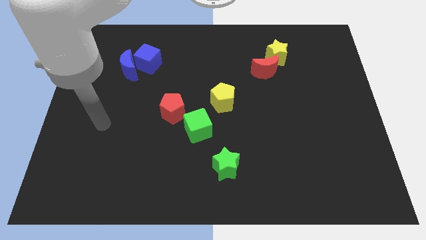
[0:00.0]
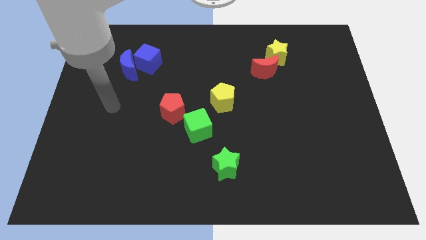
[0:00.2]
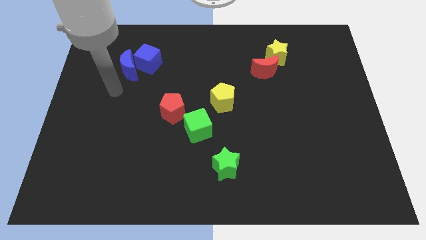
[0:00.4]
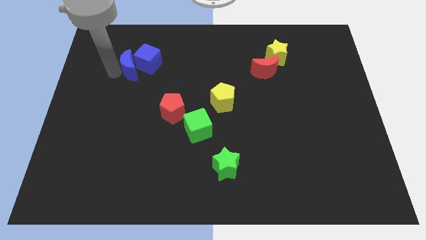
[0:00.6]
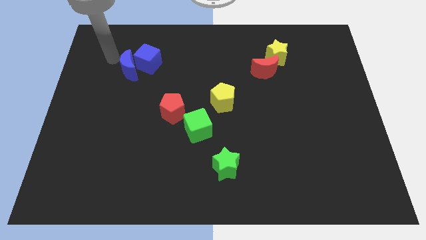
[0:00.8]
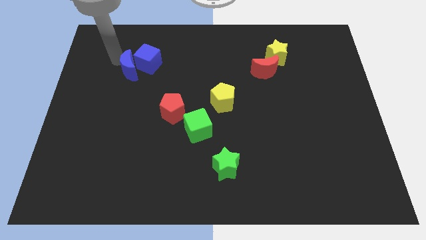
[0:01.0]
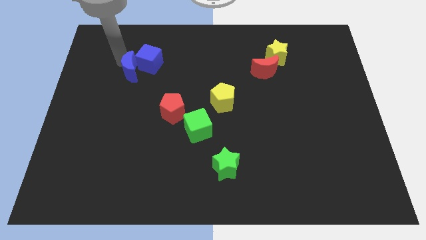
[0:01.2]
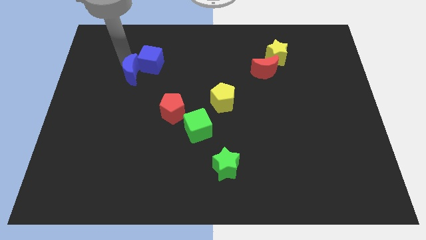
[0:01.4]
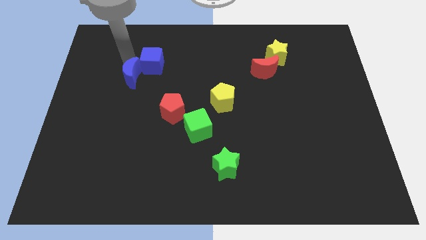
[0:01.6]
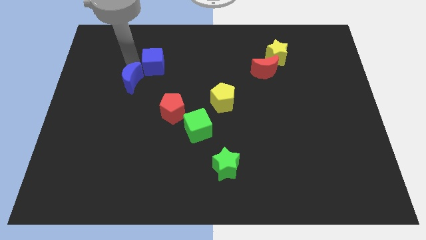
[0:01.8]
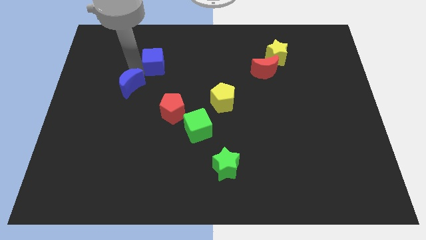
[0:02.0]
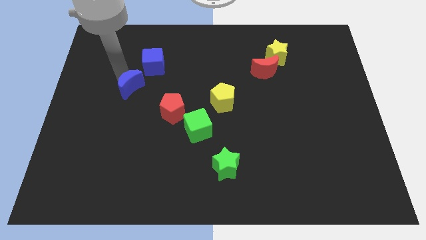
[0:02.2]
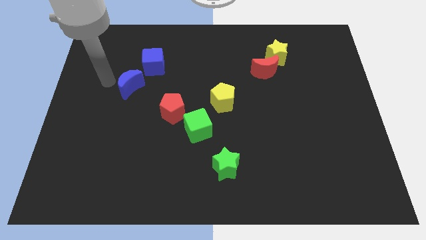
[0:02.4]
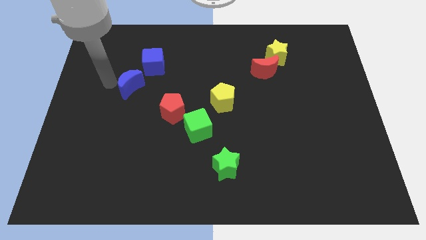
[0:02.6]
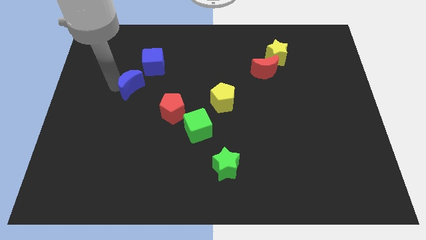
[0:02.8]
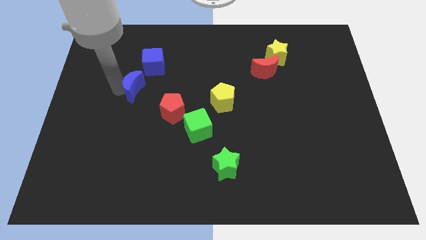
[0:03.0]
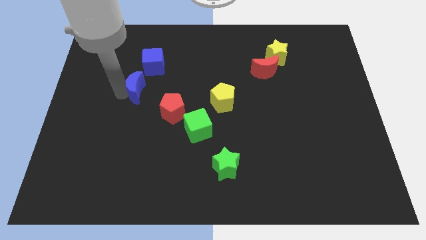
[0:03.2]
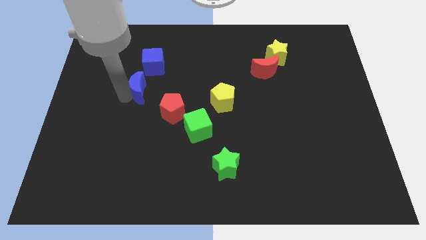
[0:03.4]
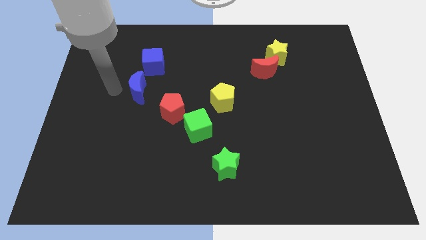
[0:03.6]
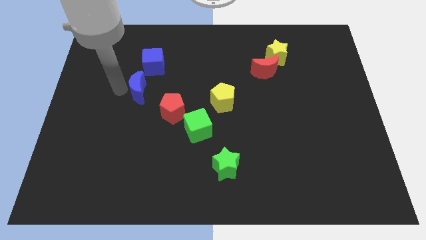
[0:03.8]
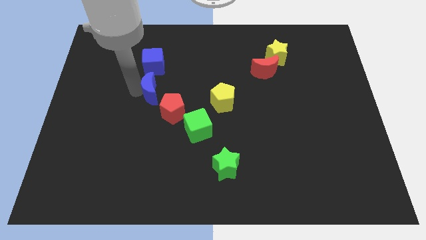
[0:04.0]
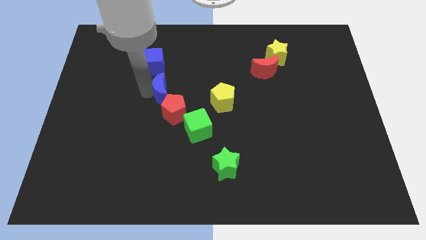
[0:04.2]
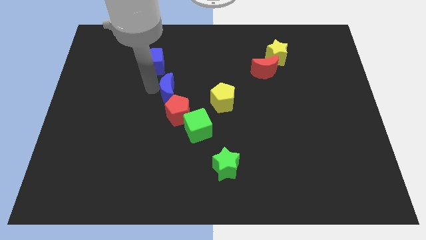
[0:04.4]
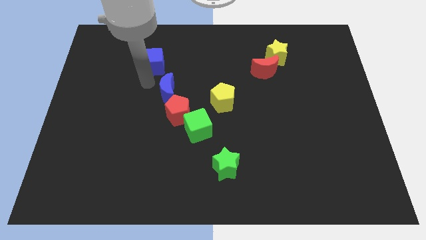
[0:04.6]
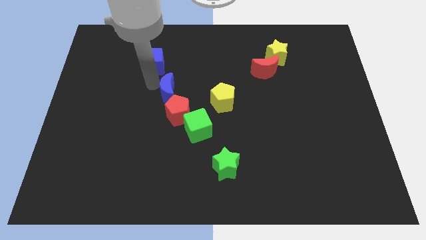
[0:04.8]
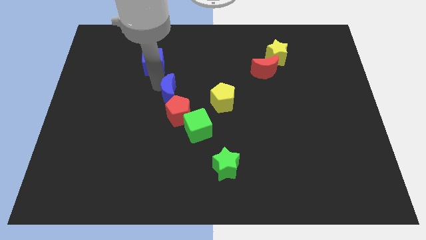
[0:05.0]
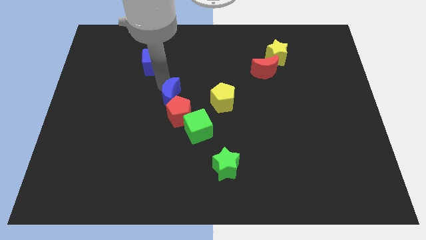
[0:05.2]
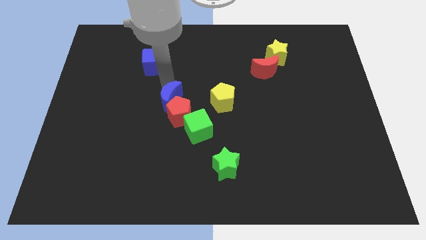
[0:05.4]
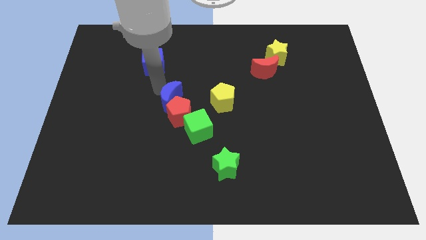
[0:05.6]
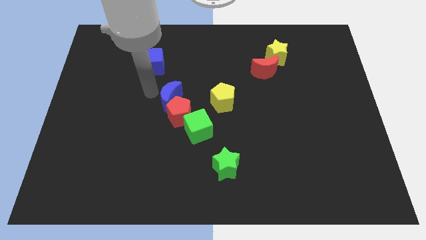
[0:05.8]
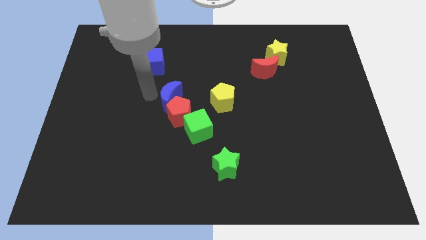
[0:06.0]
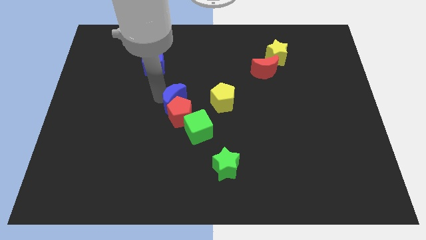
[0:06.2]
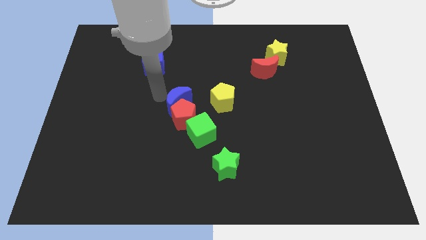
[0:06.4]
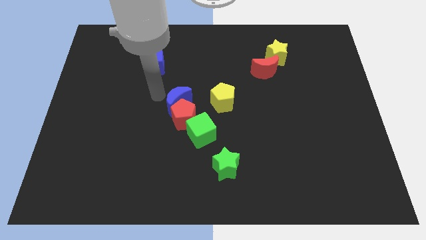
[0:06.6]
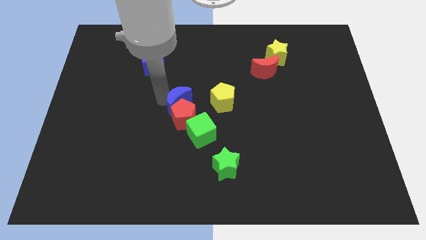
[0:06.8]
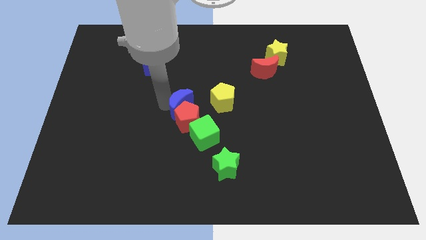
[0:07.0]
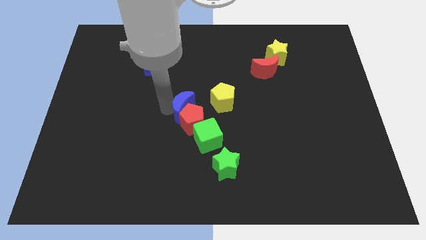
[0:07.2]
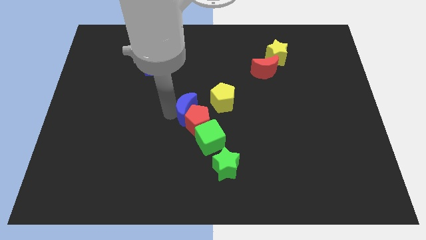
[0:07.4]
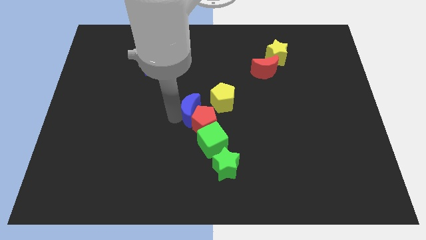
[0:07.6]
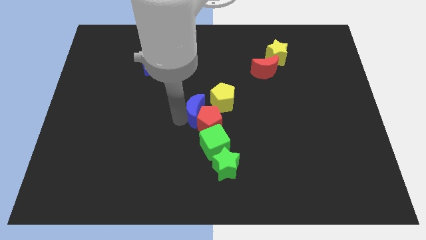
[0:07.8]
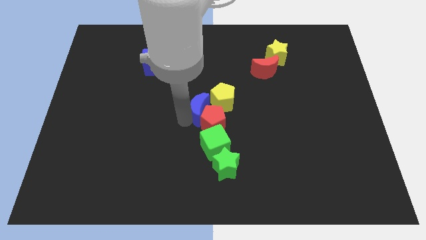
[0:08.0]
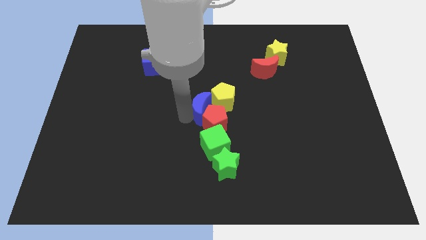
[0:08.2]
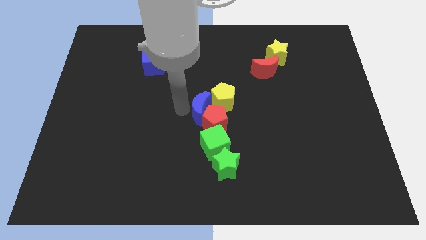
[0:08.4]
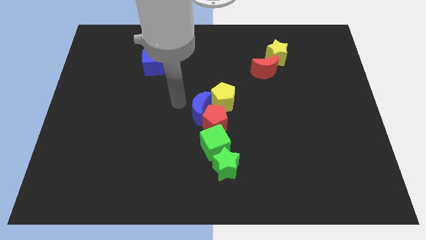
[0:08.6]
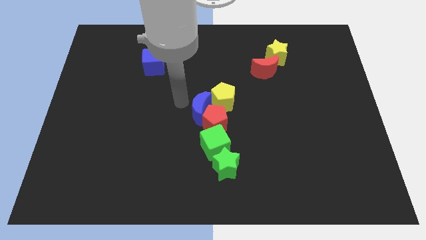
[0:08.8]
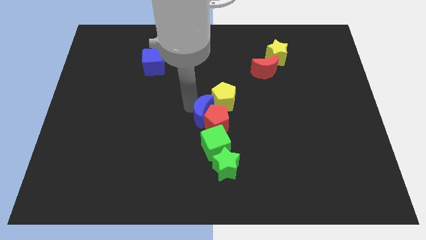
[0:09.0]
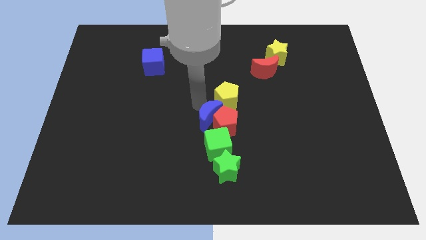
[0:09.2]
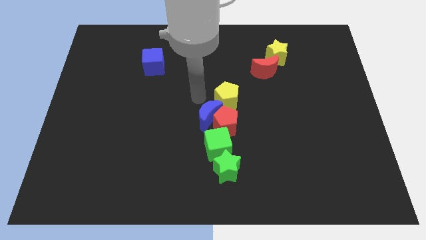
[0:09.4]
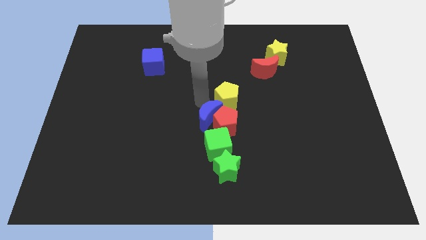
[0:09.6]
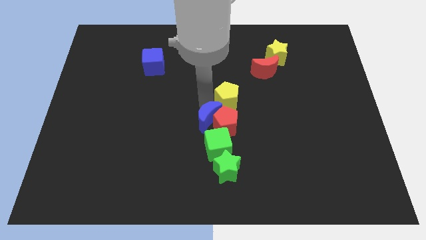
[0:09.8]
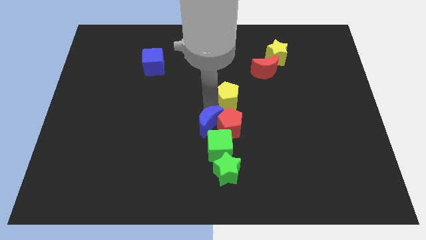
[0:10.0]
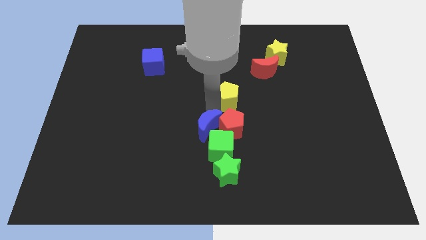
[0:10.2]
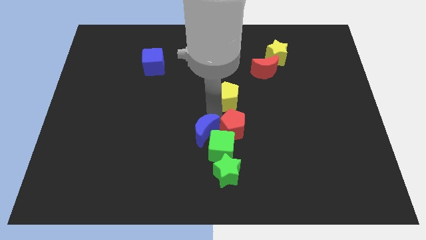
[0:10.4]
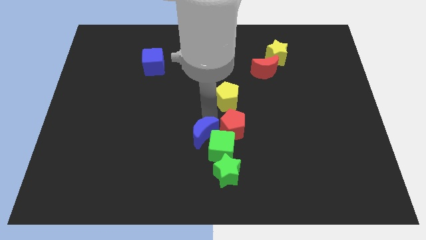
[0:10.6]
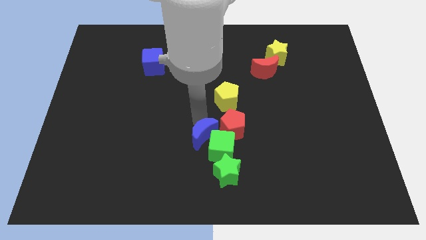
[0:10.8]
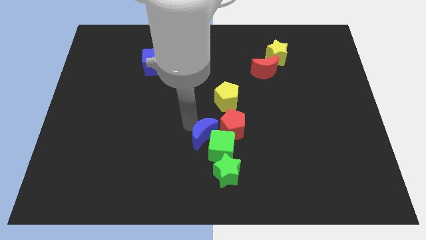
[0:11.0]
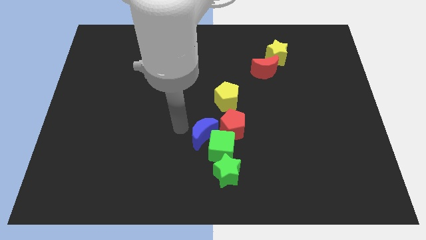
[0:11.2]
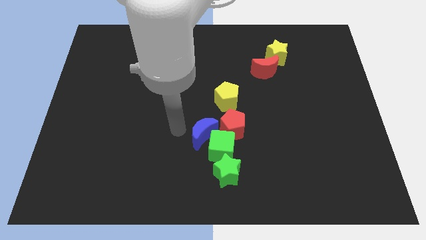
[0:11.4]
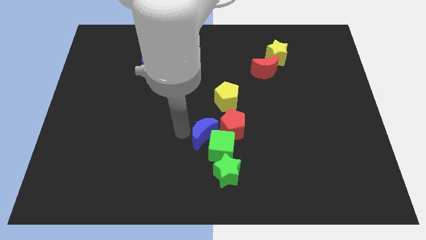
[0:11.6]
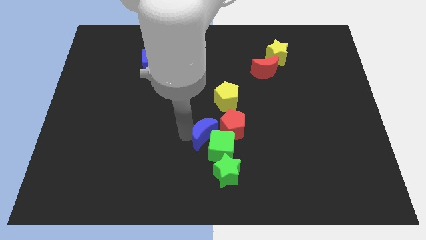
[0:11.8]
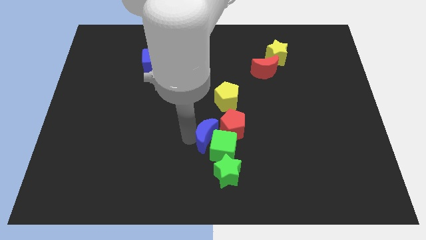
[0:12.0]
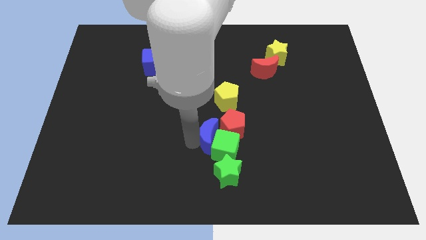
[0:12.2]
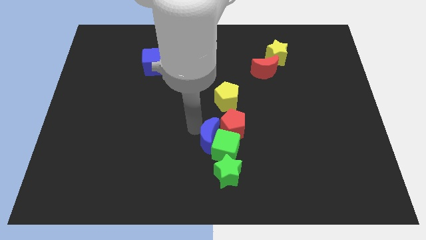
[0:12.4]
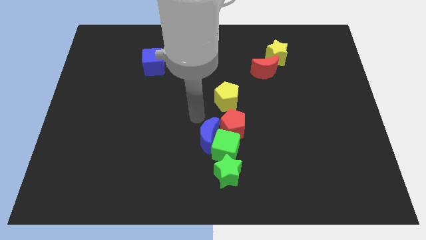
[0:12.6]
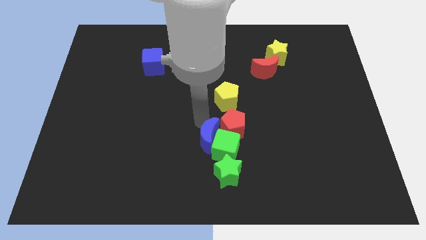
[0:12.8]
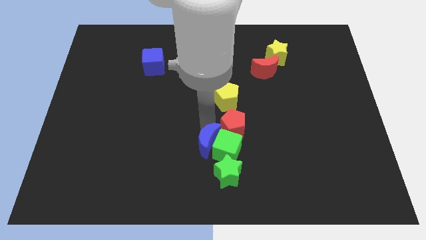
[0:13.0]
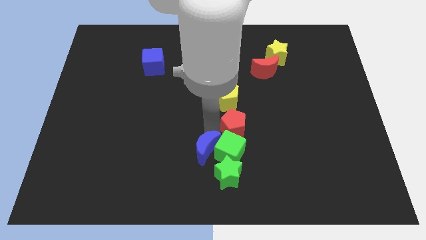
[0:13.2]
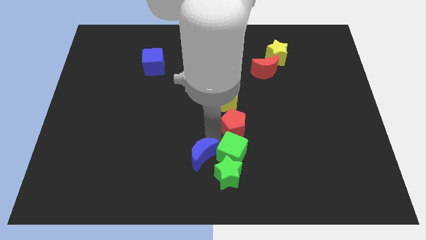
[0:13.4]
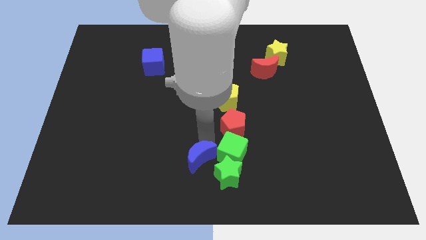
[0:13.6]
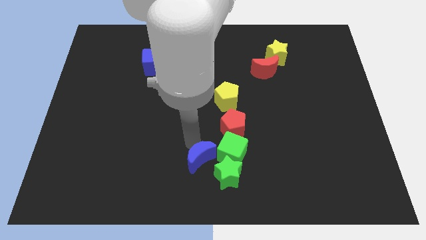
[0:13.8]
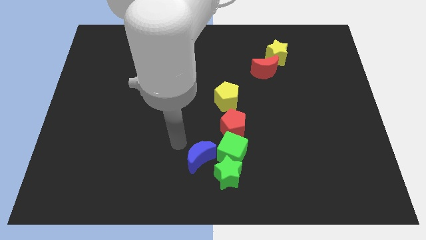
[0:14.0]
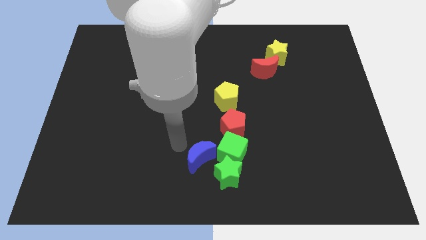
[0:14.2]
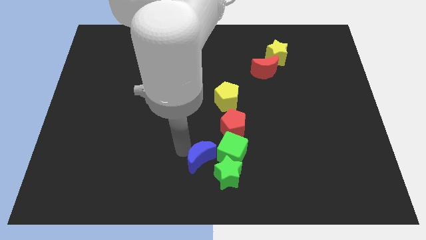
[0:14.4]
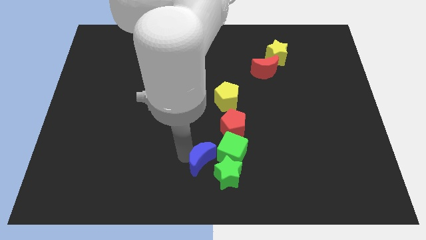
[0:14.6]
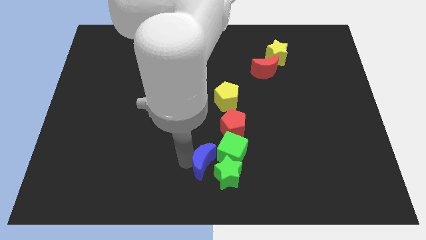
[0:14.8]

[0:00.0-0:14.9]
slide the blue moon to the green star
